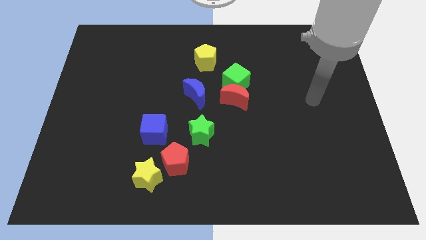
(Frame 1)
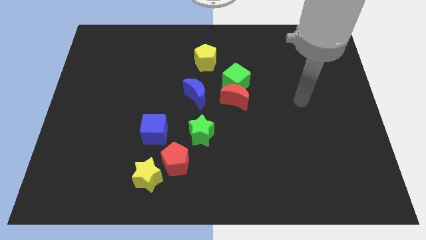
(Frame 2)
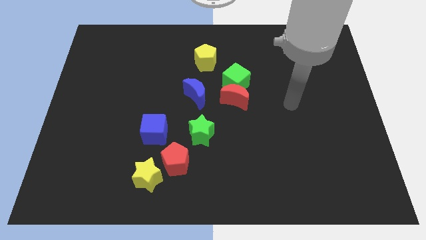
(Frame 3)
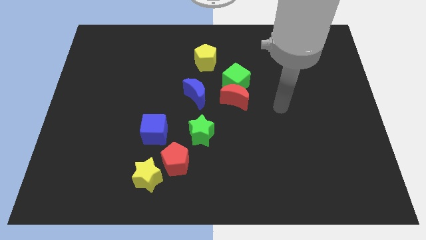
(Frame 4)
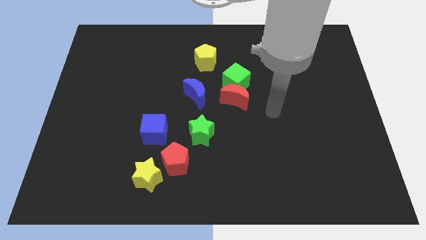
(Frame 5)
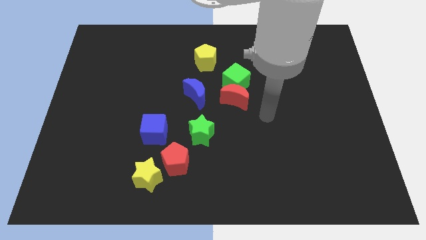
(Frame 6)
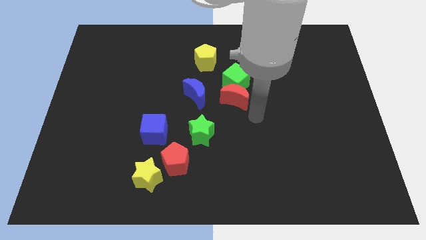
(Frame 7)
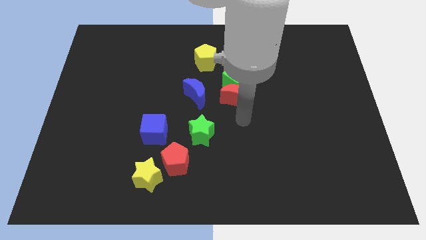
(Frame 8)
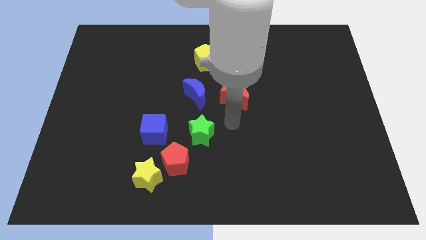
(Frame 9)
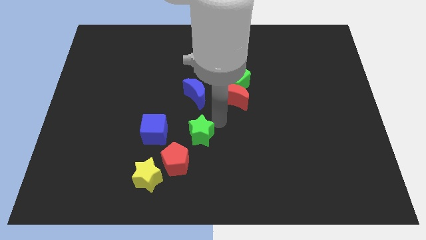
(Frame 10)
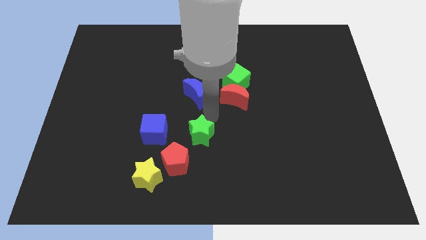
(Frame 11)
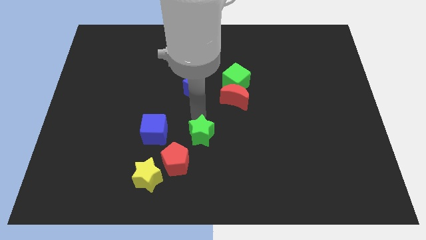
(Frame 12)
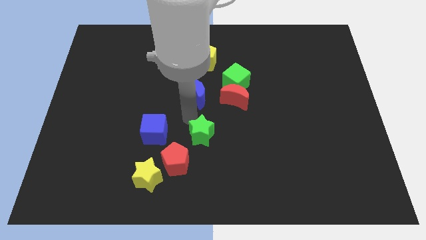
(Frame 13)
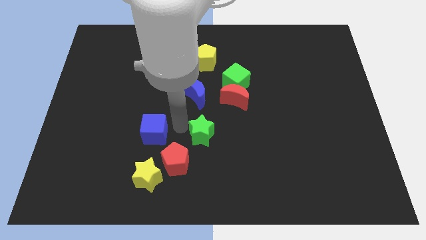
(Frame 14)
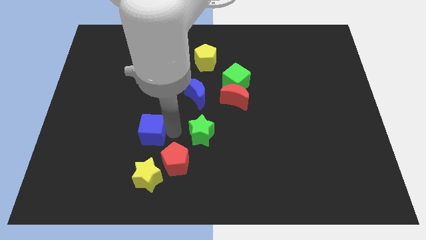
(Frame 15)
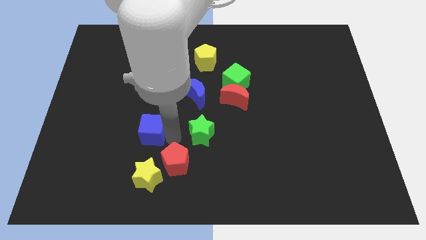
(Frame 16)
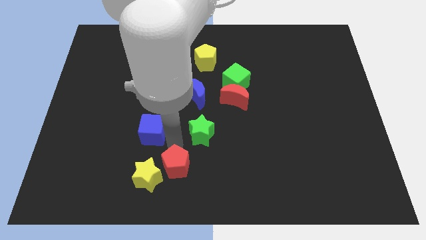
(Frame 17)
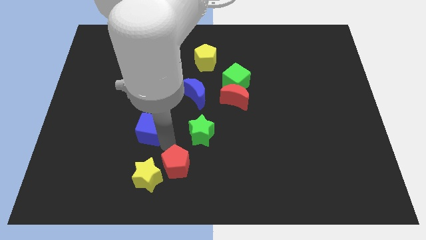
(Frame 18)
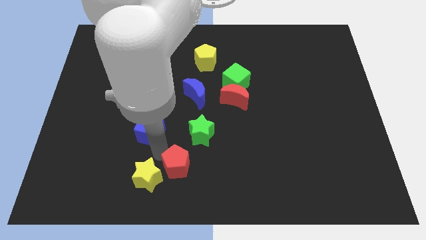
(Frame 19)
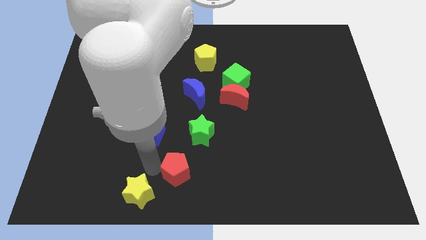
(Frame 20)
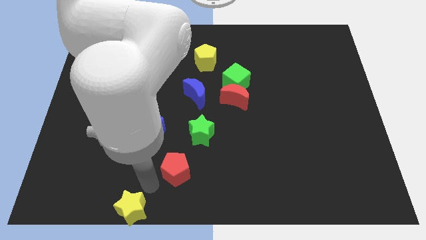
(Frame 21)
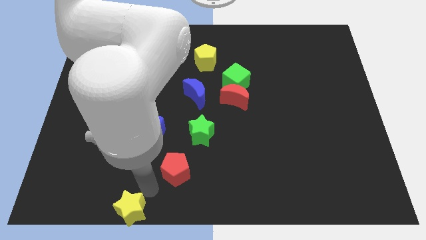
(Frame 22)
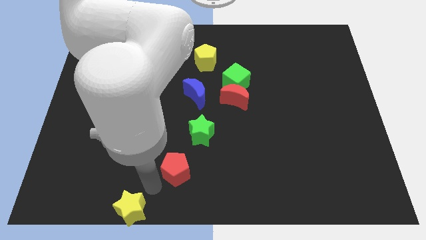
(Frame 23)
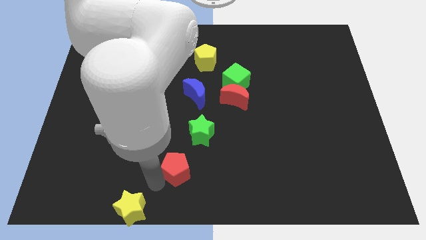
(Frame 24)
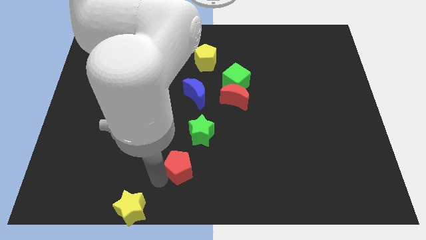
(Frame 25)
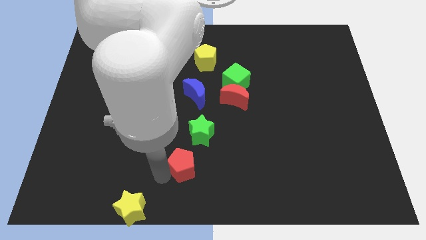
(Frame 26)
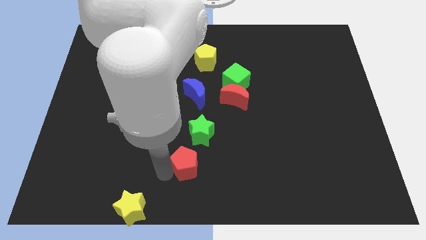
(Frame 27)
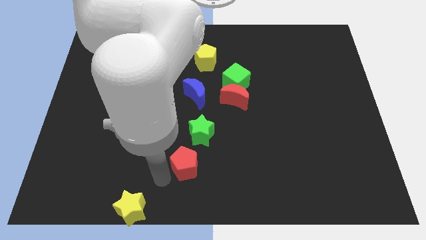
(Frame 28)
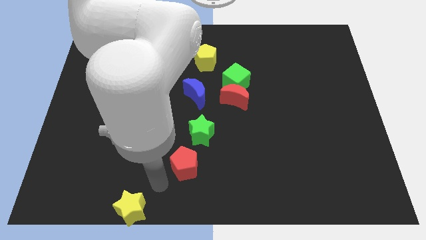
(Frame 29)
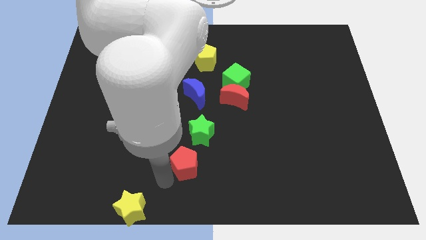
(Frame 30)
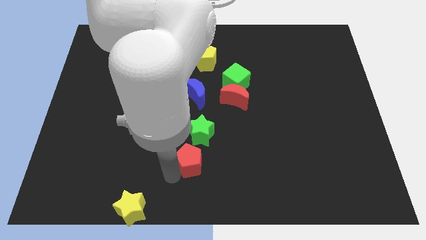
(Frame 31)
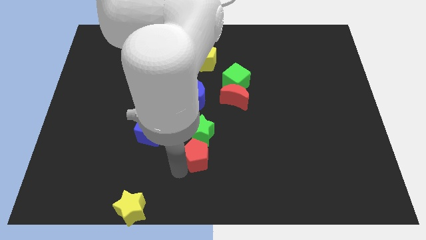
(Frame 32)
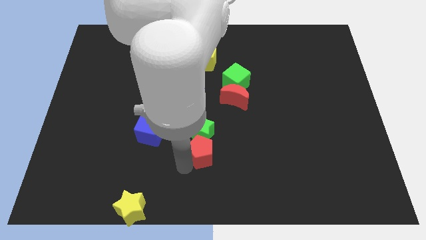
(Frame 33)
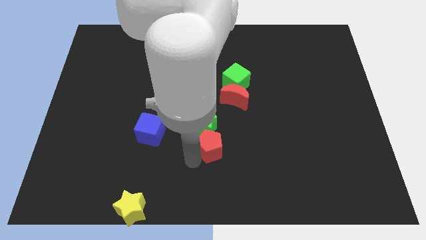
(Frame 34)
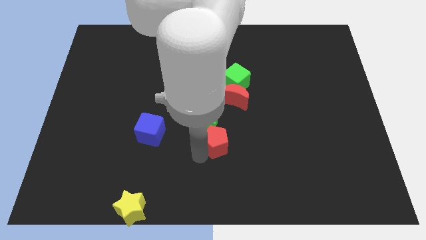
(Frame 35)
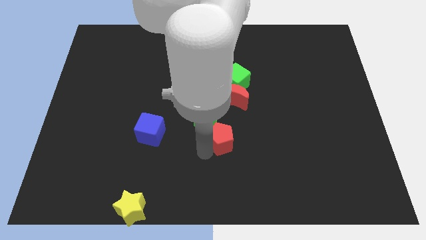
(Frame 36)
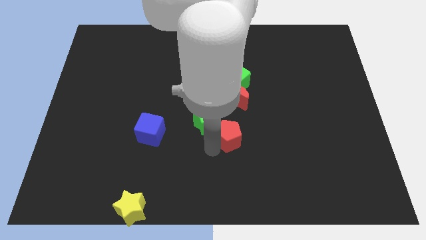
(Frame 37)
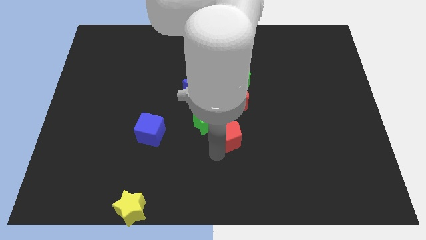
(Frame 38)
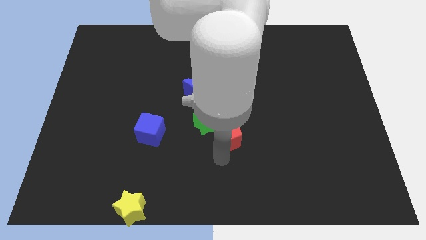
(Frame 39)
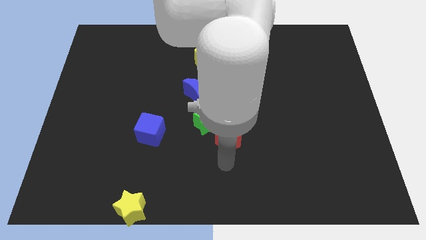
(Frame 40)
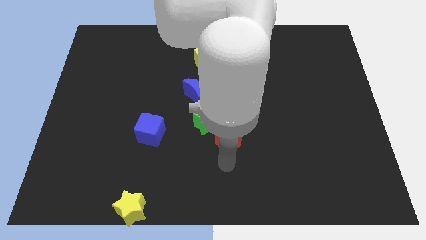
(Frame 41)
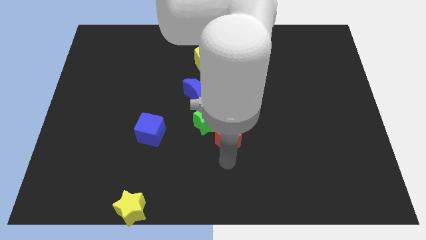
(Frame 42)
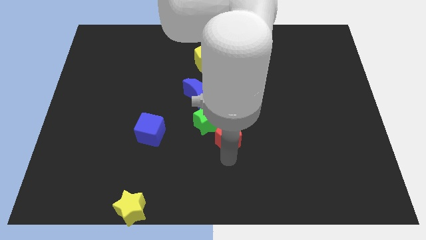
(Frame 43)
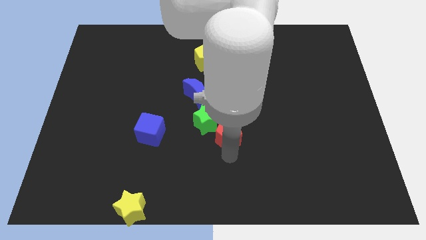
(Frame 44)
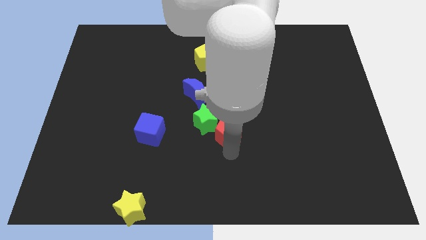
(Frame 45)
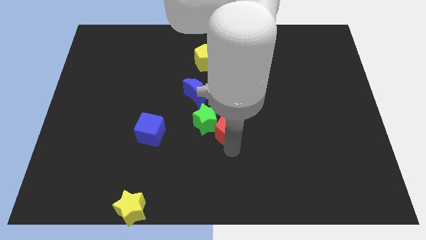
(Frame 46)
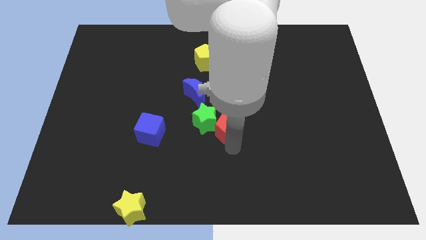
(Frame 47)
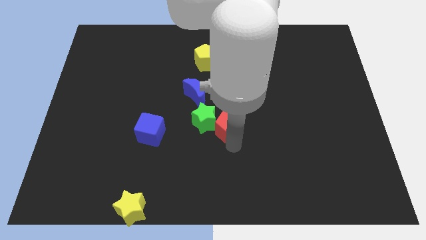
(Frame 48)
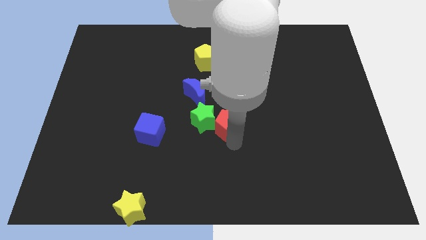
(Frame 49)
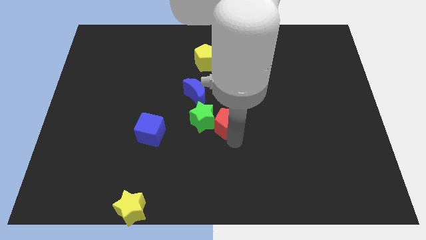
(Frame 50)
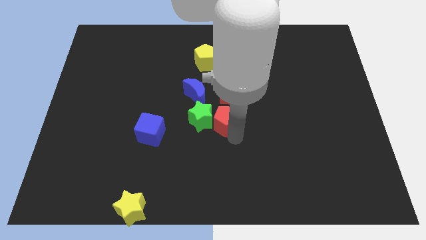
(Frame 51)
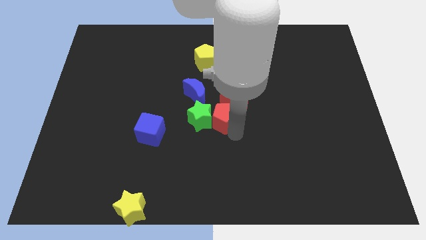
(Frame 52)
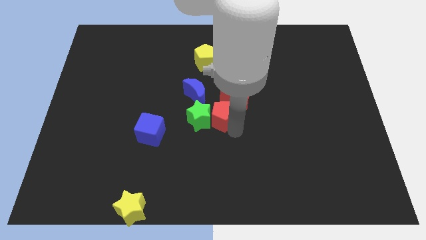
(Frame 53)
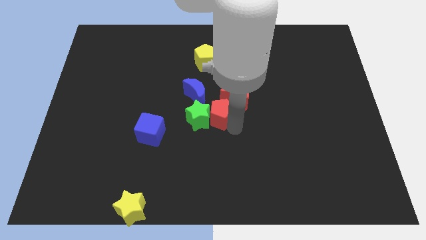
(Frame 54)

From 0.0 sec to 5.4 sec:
move the red pentagon close to the red moon

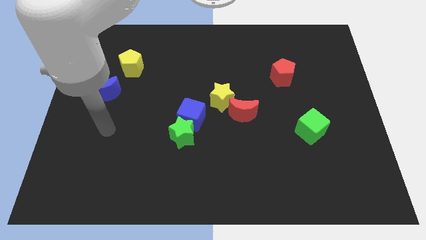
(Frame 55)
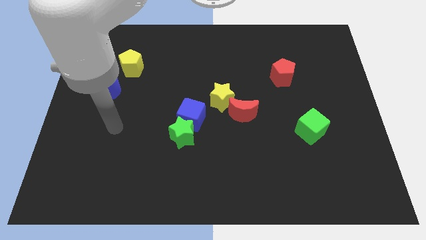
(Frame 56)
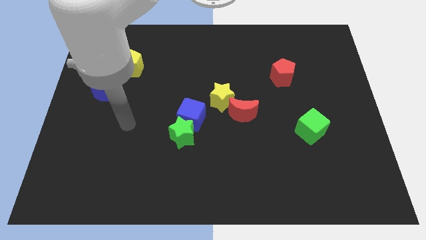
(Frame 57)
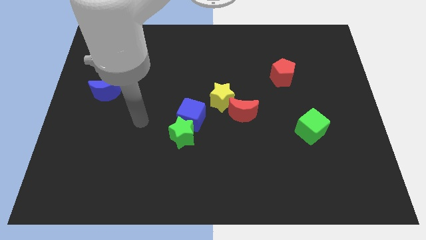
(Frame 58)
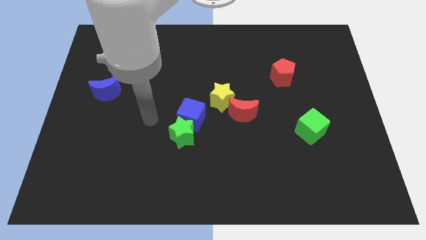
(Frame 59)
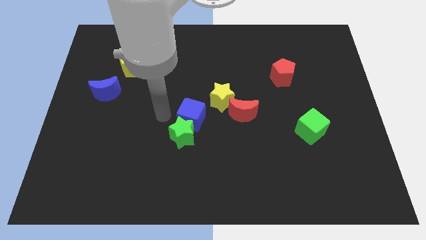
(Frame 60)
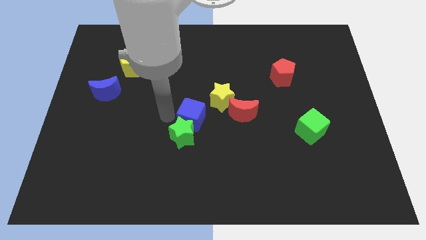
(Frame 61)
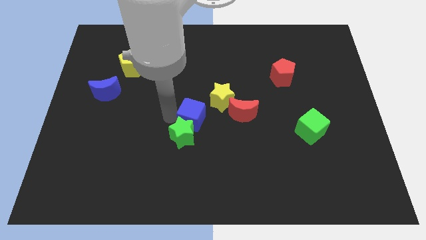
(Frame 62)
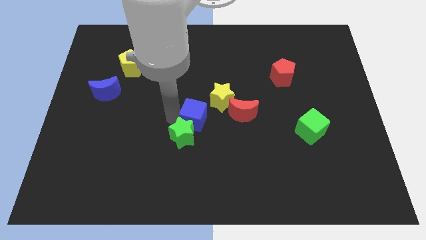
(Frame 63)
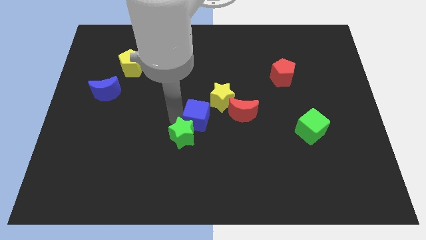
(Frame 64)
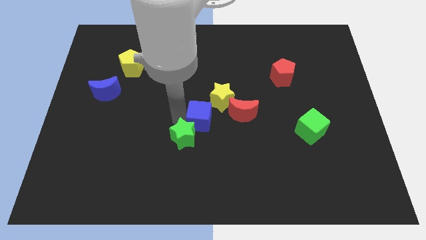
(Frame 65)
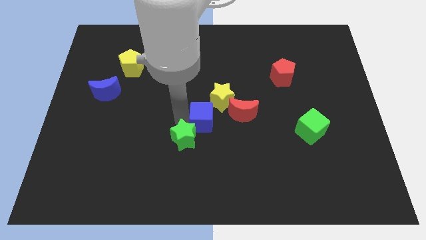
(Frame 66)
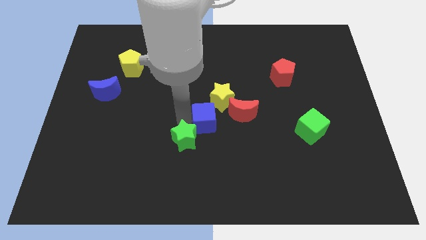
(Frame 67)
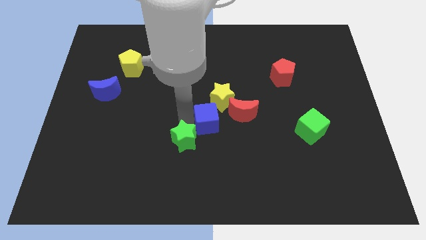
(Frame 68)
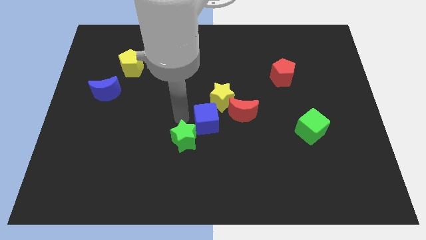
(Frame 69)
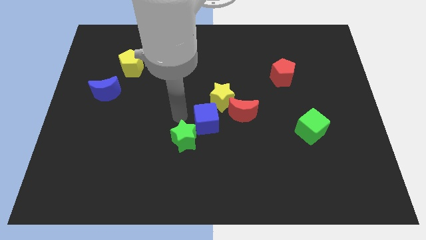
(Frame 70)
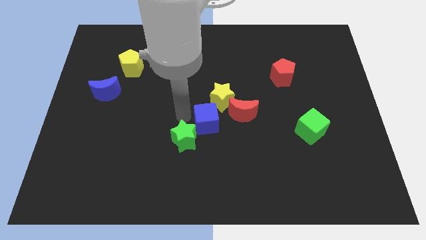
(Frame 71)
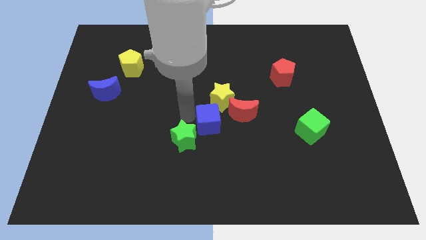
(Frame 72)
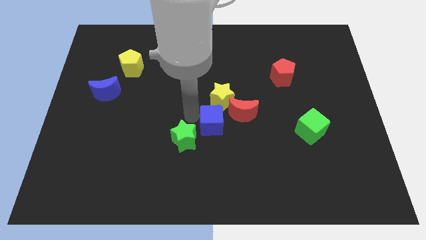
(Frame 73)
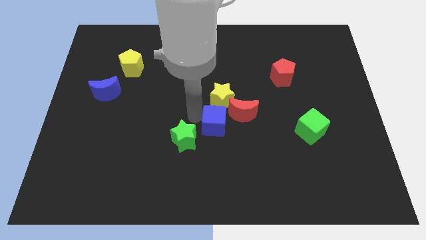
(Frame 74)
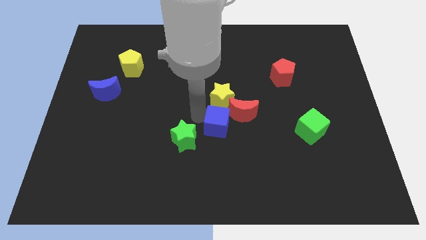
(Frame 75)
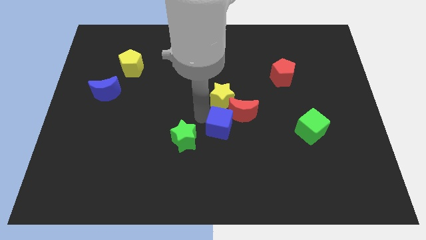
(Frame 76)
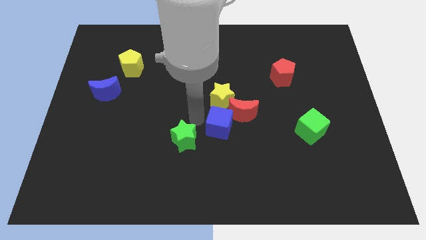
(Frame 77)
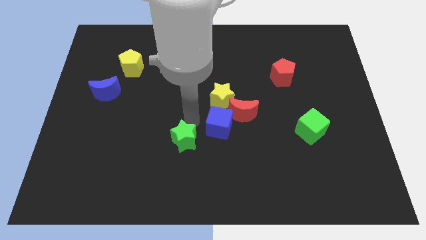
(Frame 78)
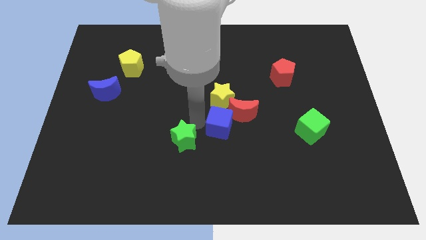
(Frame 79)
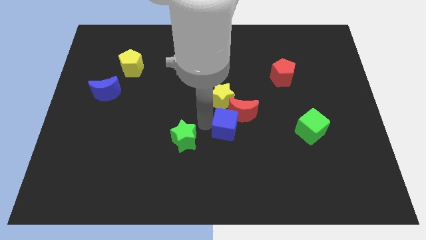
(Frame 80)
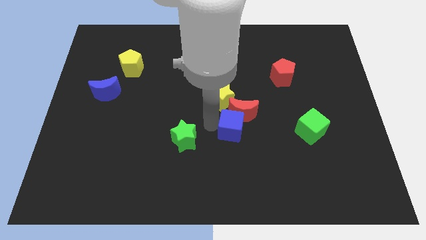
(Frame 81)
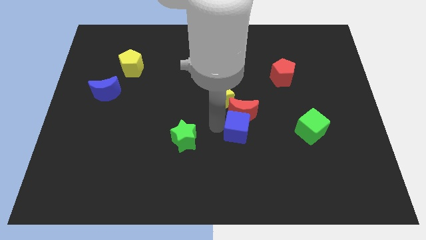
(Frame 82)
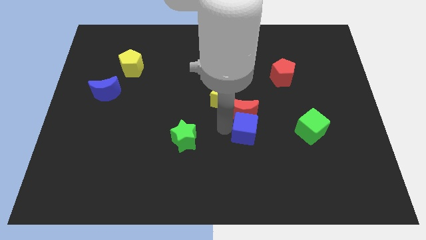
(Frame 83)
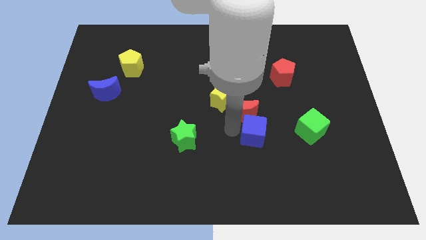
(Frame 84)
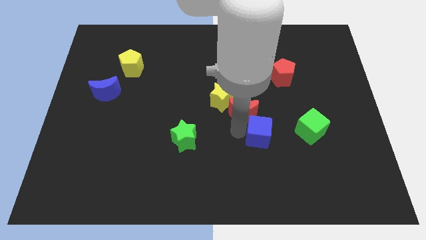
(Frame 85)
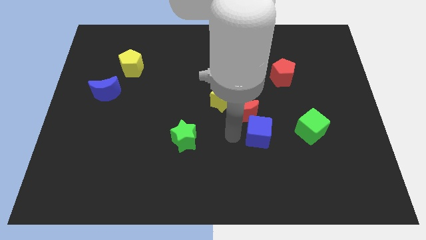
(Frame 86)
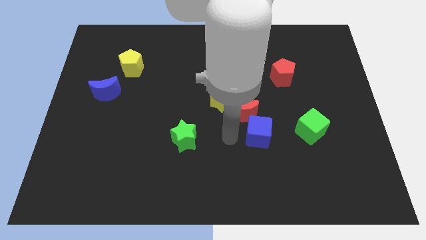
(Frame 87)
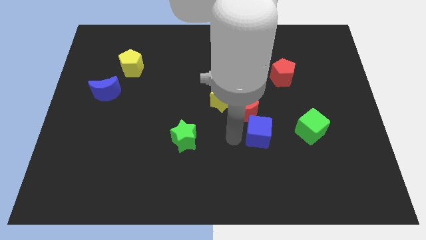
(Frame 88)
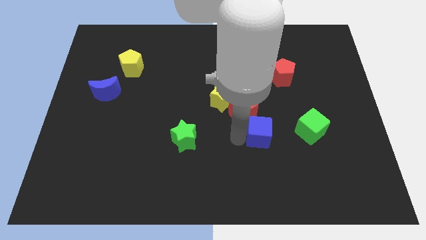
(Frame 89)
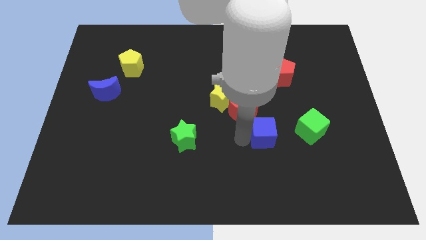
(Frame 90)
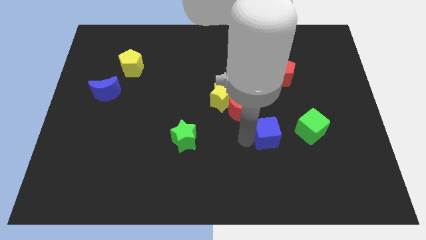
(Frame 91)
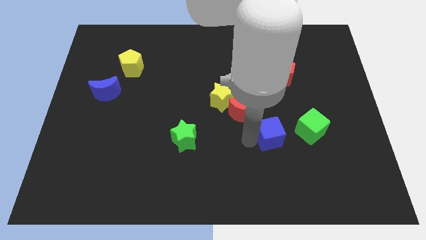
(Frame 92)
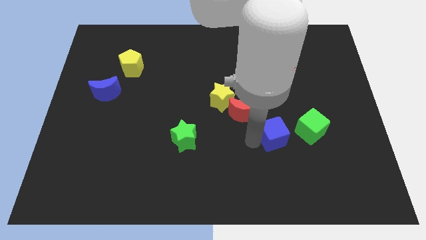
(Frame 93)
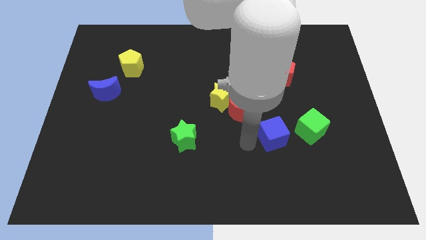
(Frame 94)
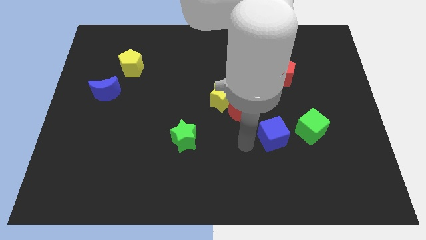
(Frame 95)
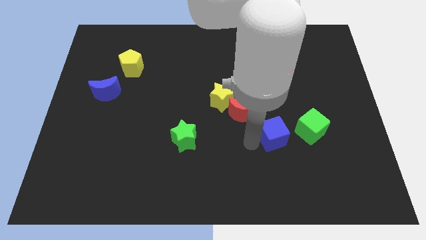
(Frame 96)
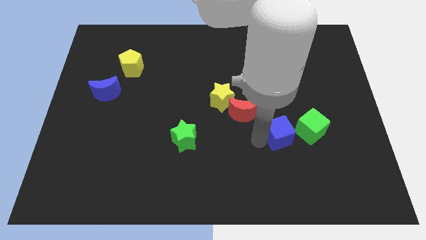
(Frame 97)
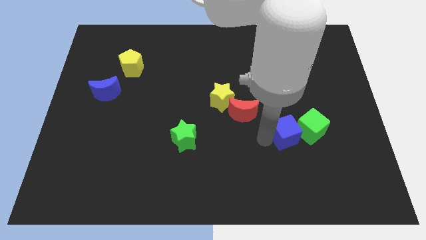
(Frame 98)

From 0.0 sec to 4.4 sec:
push the blue cube close to the green cube
